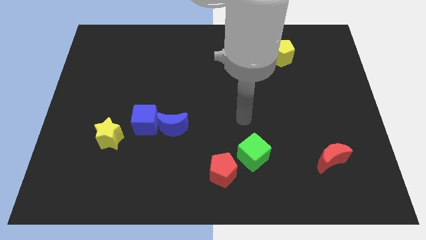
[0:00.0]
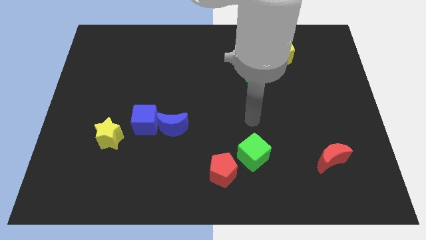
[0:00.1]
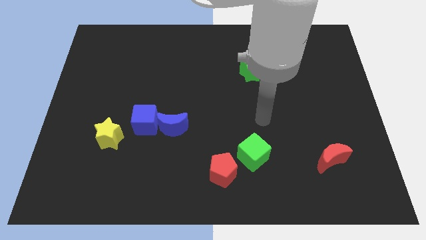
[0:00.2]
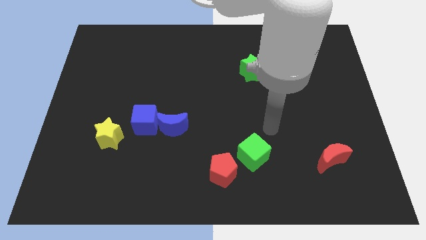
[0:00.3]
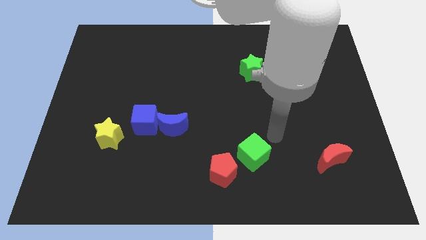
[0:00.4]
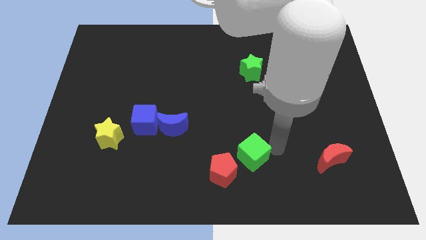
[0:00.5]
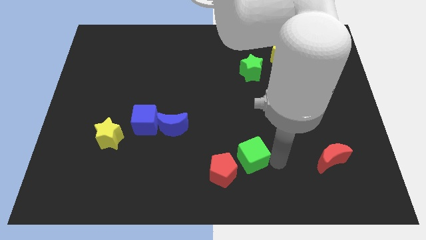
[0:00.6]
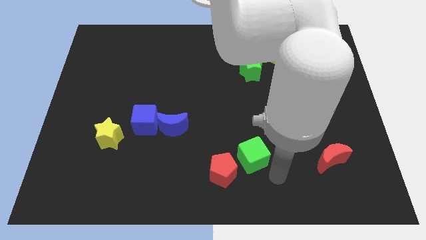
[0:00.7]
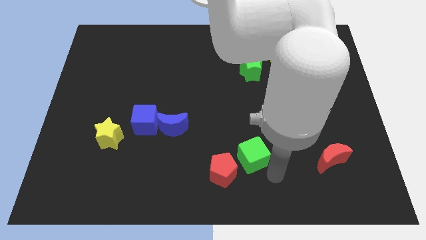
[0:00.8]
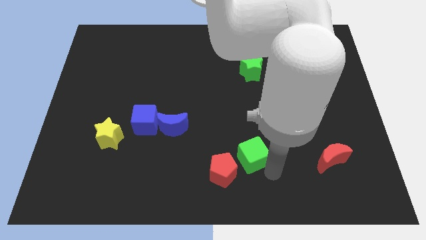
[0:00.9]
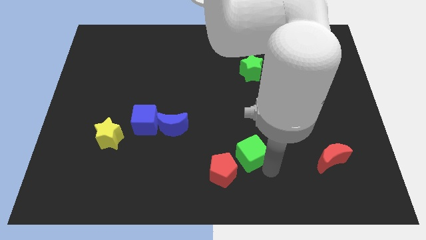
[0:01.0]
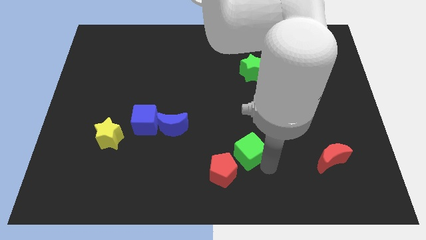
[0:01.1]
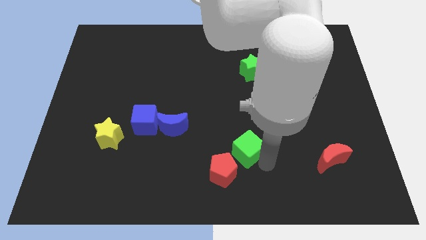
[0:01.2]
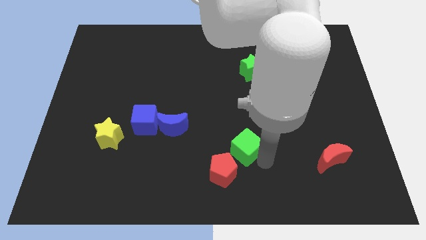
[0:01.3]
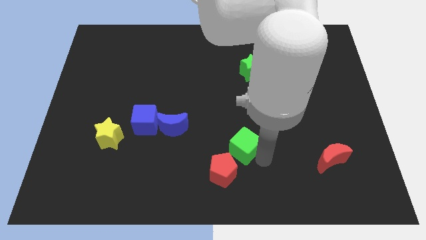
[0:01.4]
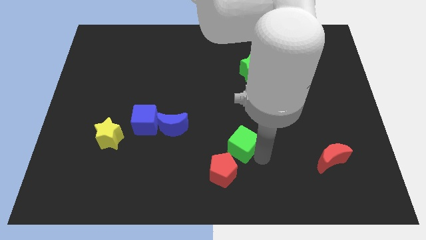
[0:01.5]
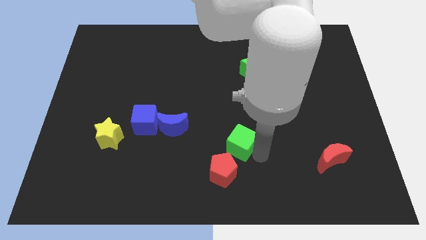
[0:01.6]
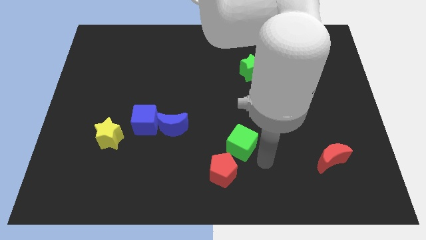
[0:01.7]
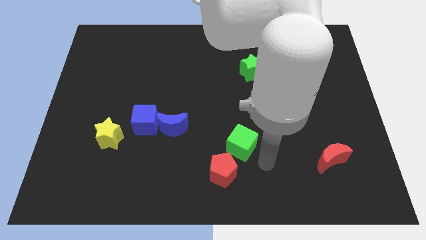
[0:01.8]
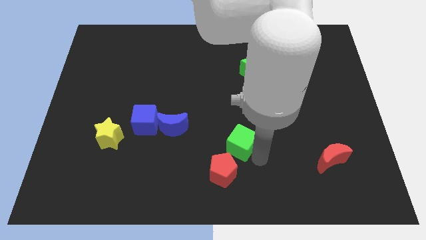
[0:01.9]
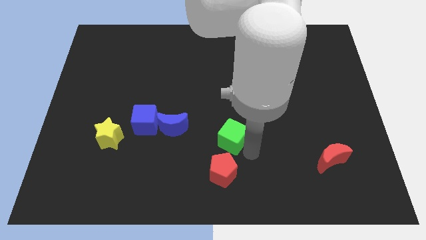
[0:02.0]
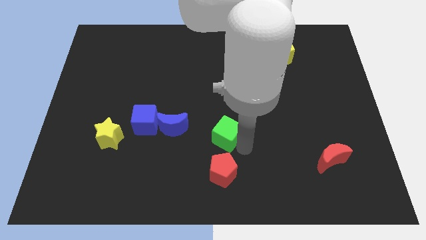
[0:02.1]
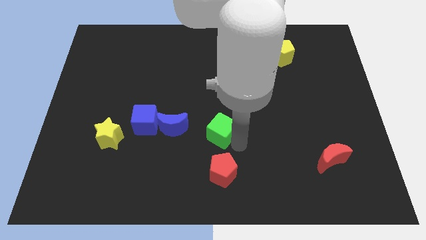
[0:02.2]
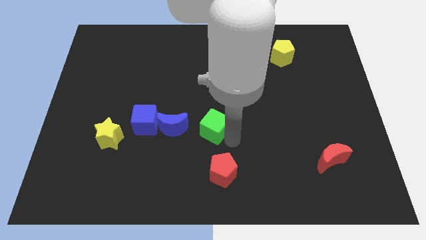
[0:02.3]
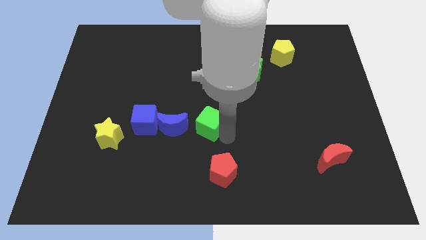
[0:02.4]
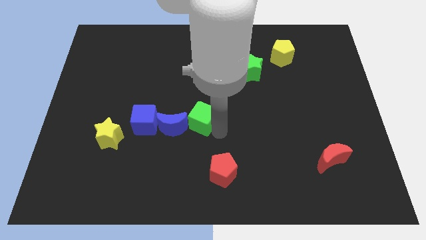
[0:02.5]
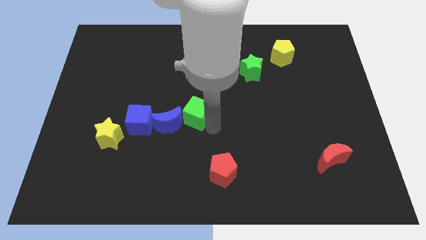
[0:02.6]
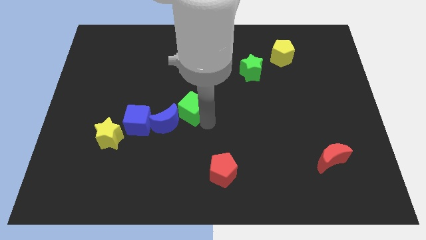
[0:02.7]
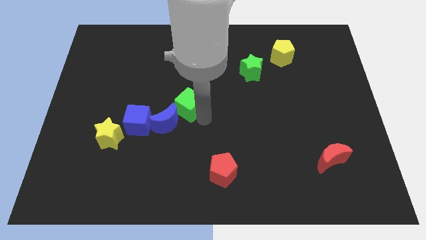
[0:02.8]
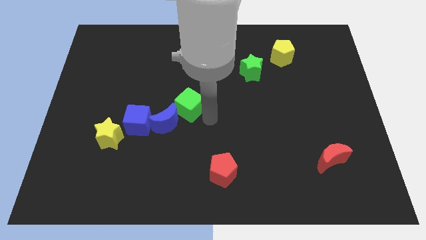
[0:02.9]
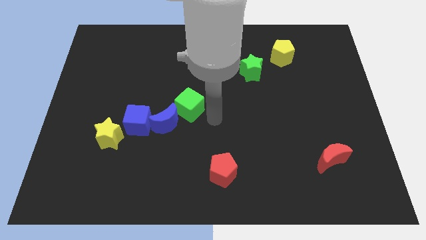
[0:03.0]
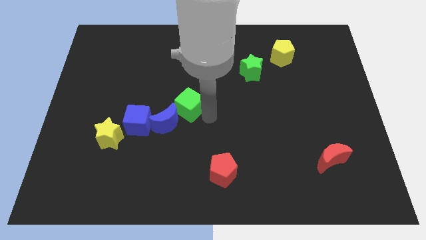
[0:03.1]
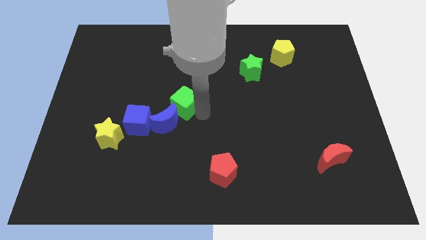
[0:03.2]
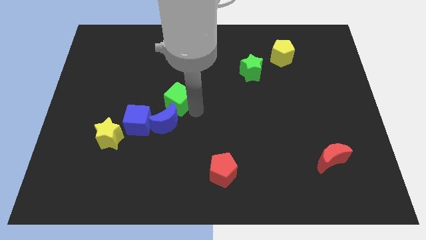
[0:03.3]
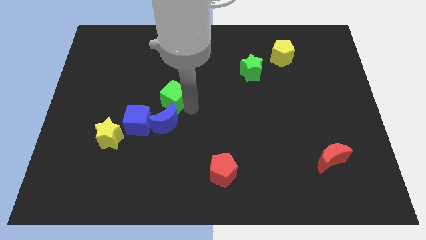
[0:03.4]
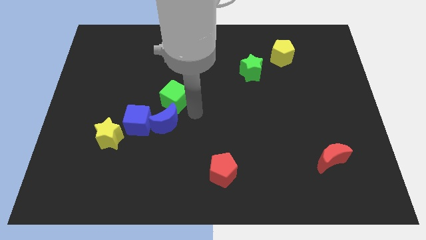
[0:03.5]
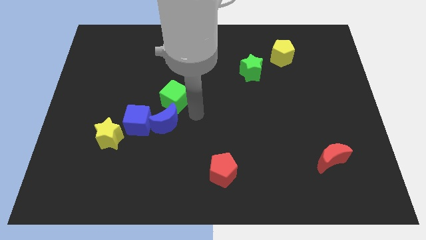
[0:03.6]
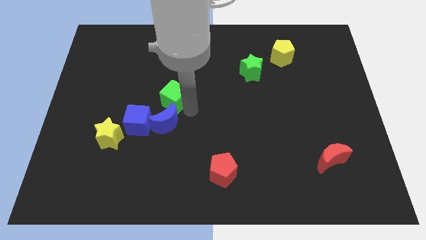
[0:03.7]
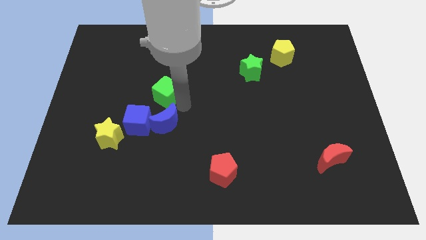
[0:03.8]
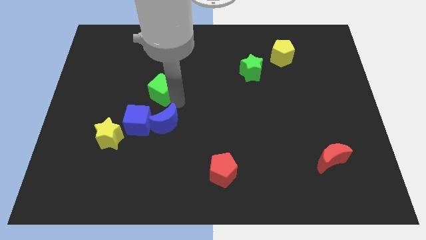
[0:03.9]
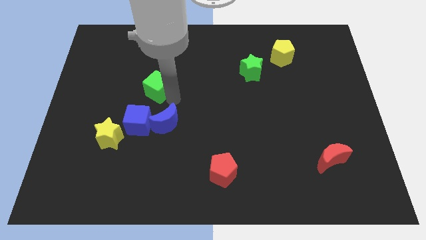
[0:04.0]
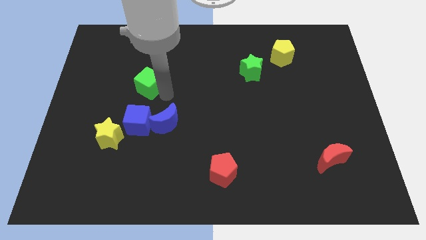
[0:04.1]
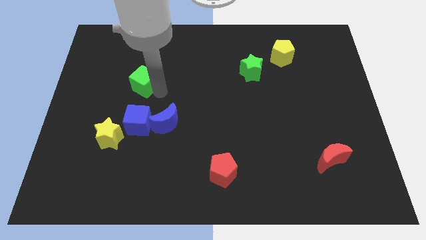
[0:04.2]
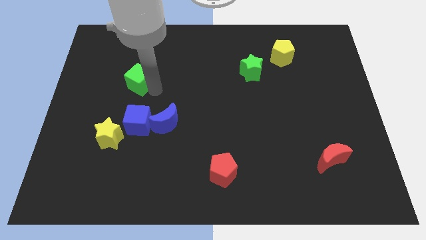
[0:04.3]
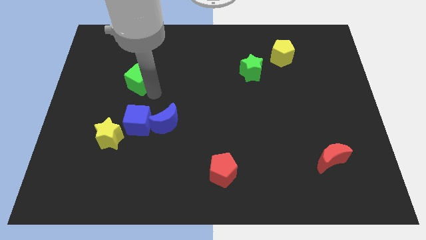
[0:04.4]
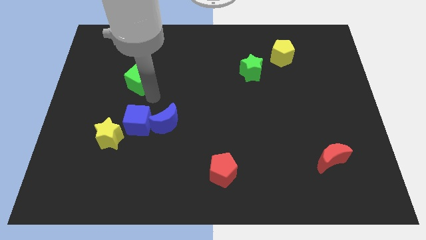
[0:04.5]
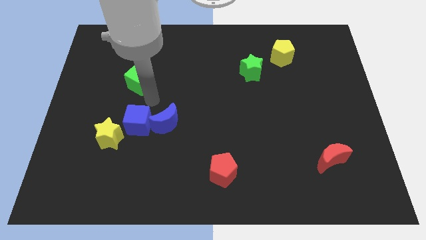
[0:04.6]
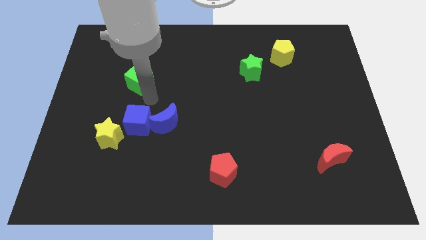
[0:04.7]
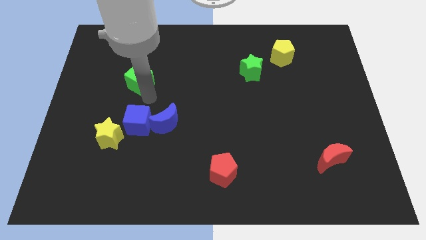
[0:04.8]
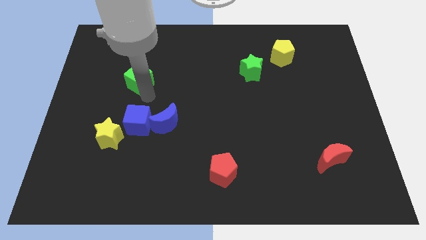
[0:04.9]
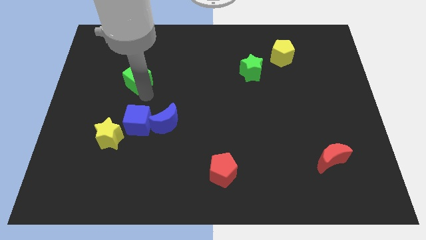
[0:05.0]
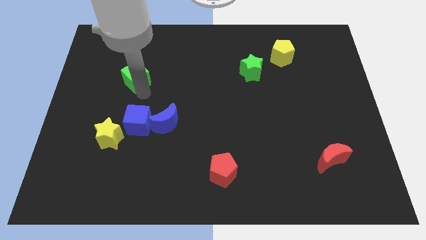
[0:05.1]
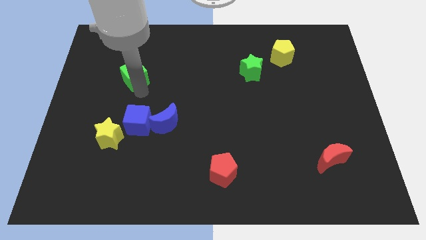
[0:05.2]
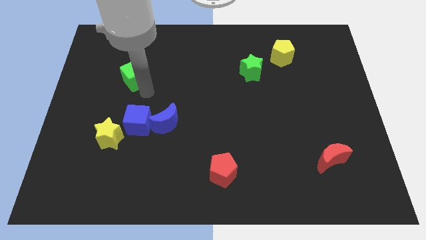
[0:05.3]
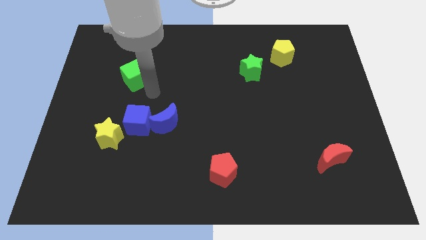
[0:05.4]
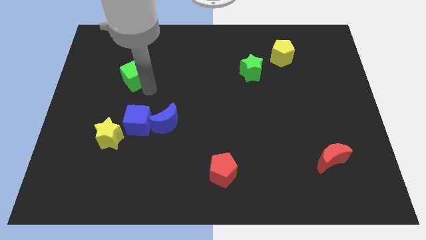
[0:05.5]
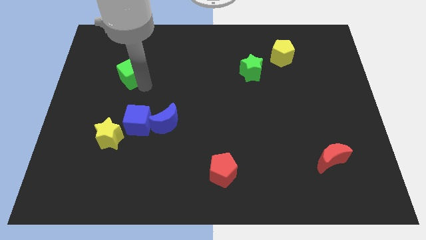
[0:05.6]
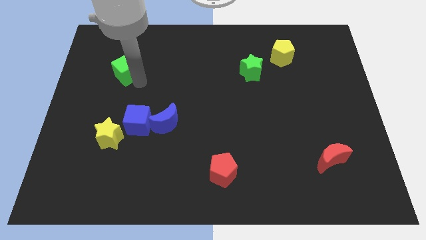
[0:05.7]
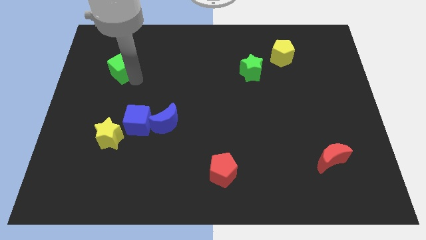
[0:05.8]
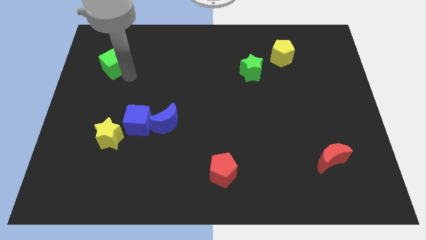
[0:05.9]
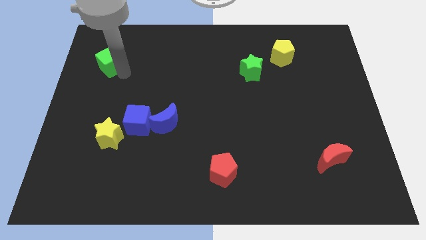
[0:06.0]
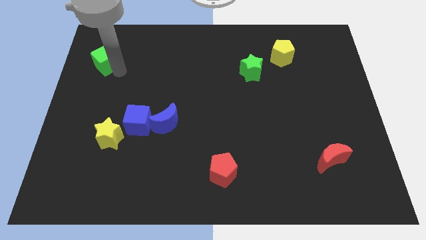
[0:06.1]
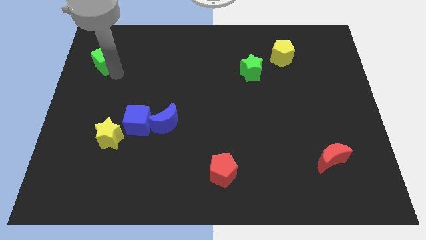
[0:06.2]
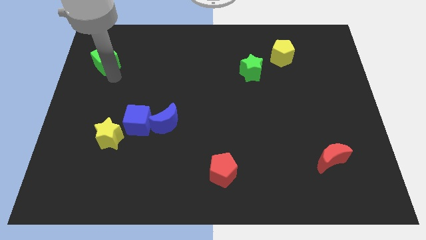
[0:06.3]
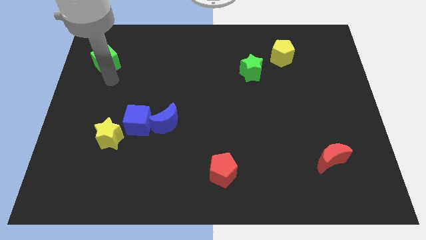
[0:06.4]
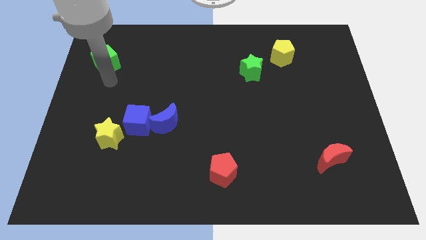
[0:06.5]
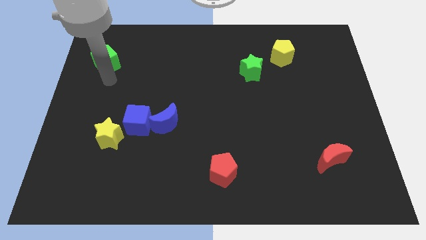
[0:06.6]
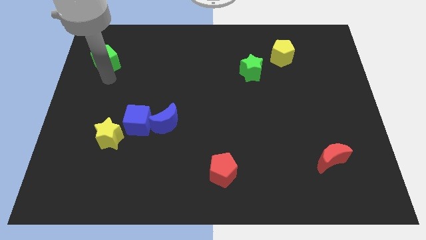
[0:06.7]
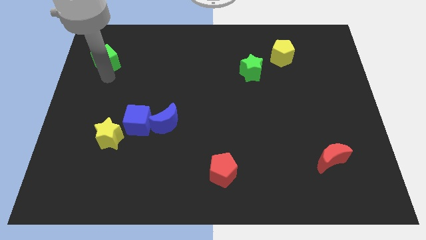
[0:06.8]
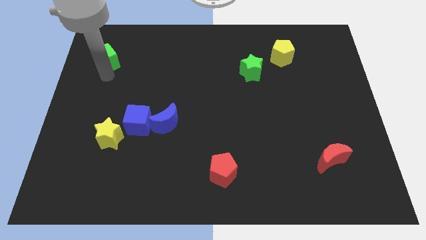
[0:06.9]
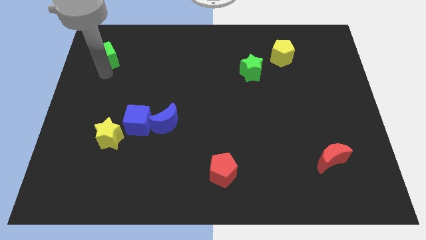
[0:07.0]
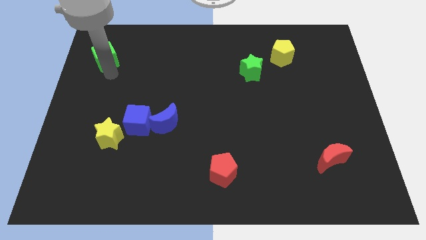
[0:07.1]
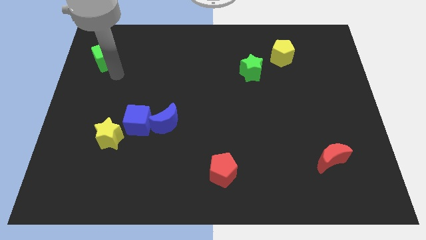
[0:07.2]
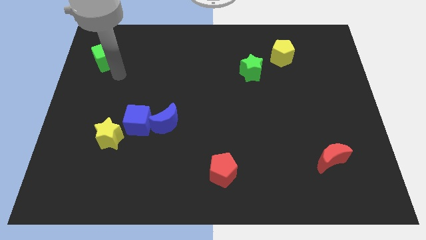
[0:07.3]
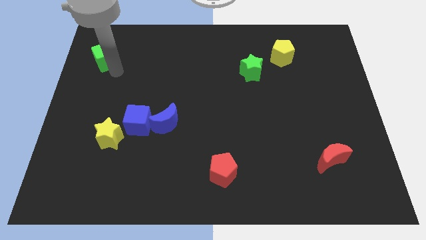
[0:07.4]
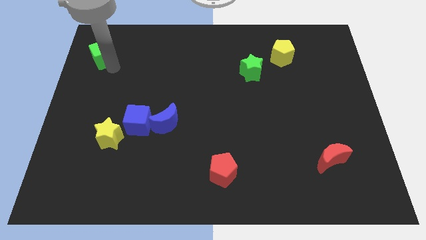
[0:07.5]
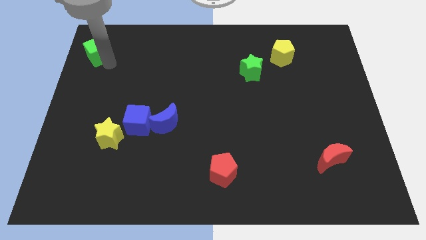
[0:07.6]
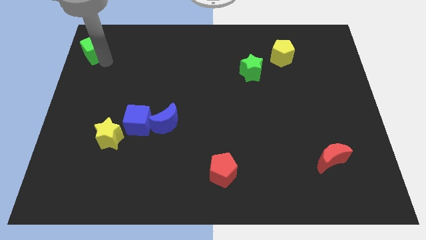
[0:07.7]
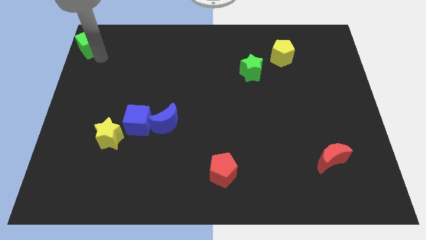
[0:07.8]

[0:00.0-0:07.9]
push the green cube to the upper left corner
